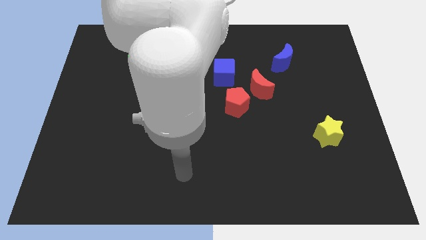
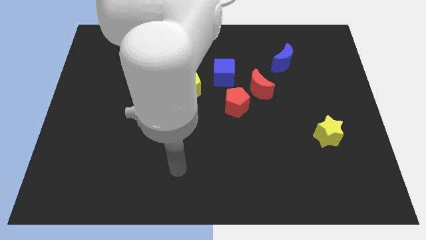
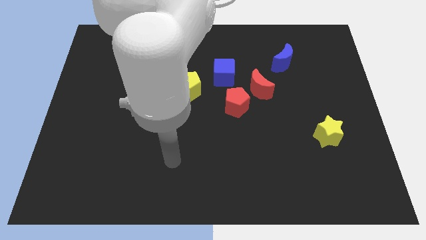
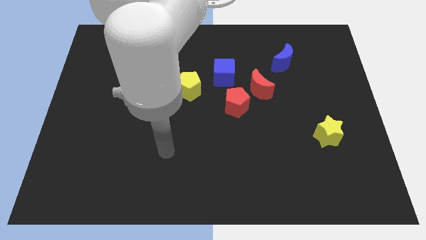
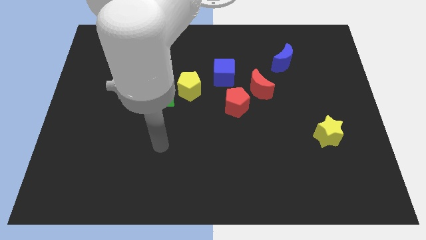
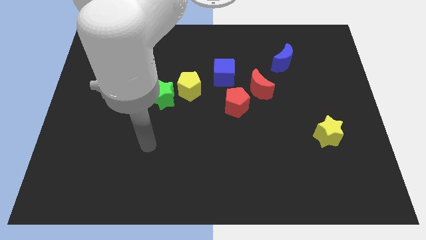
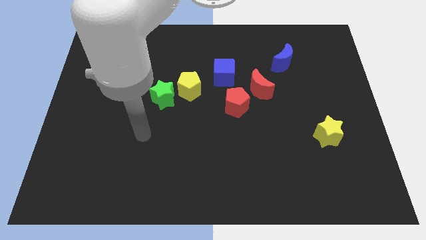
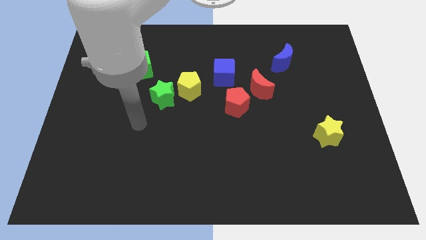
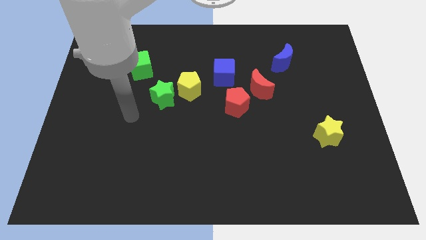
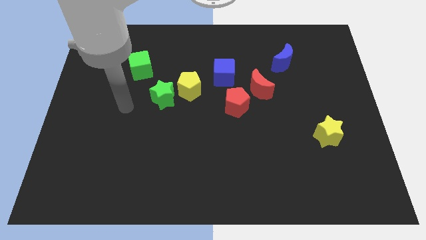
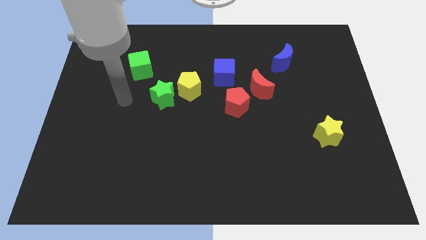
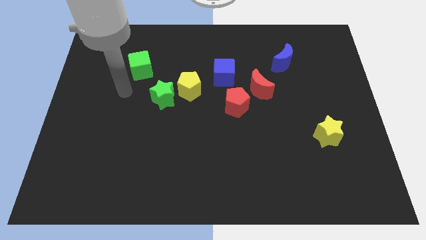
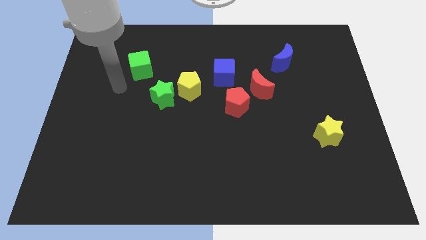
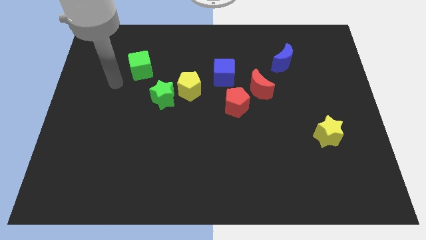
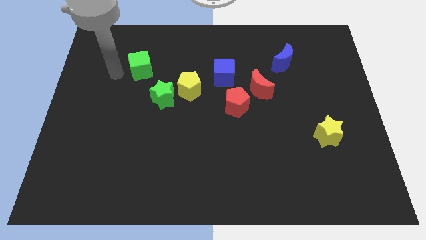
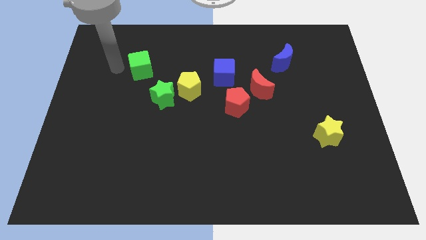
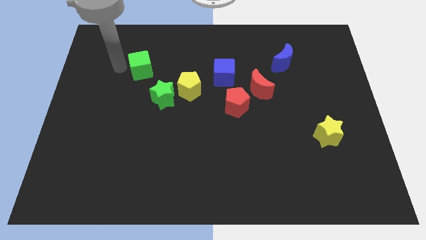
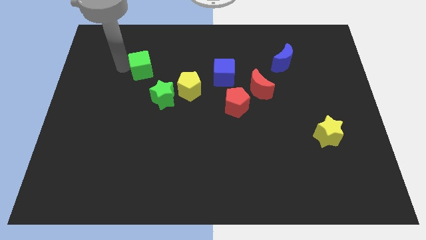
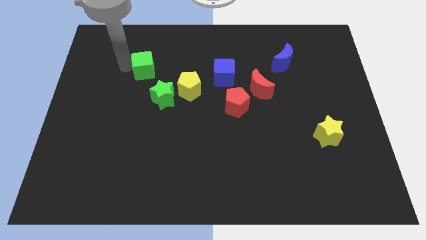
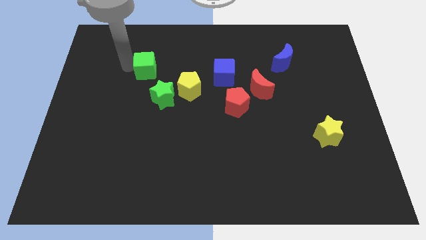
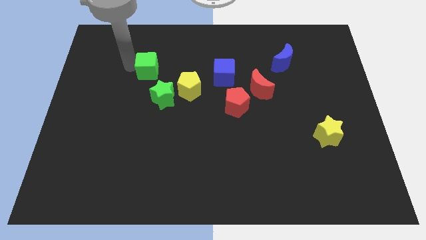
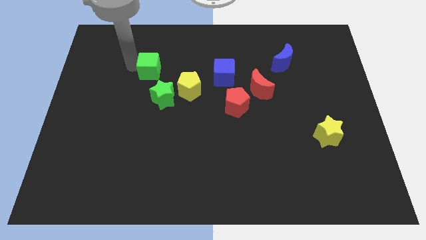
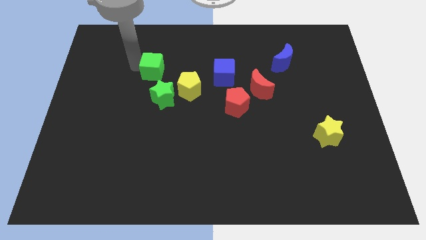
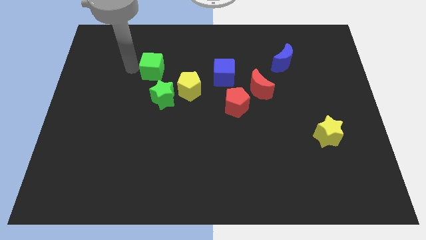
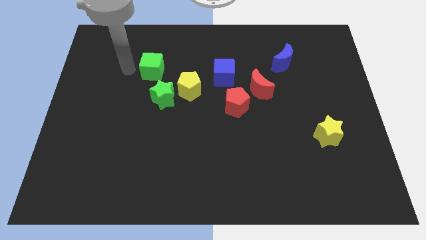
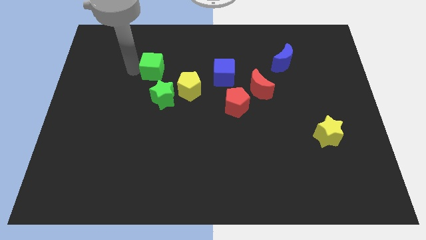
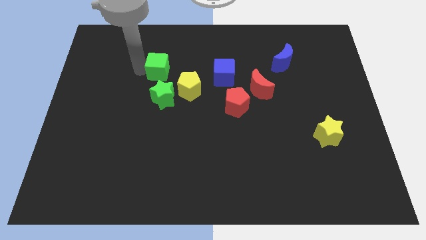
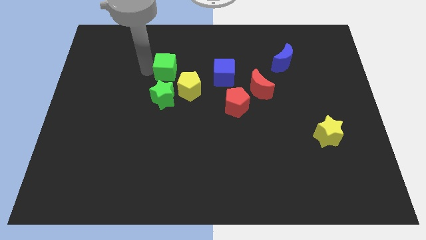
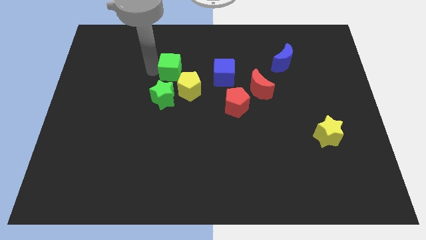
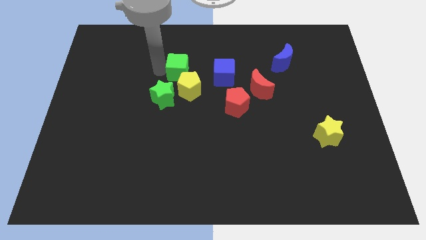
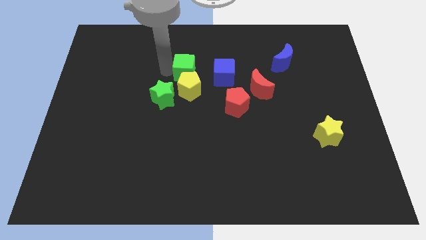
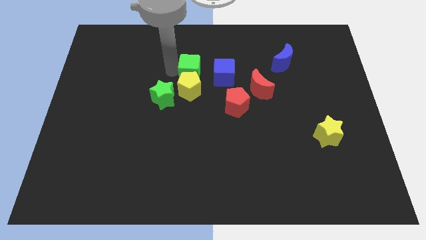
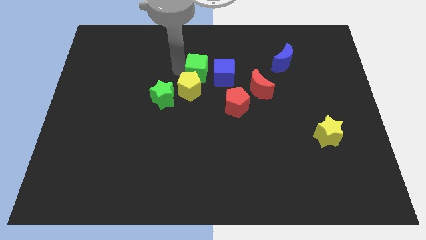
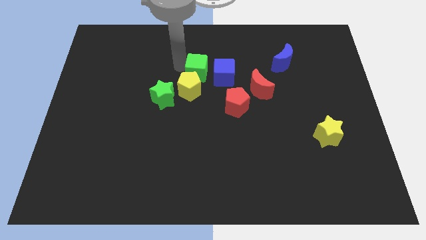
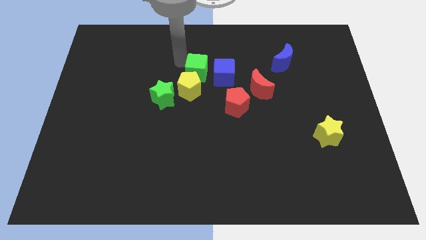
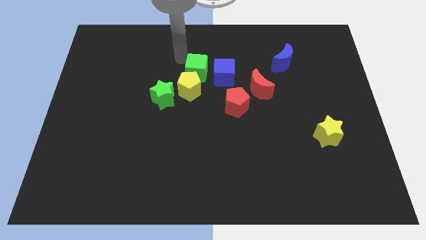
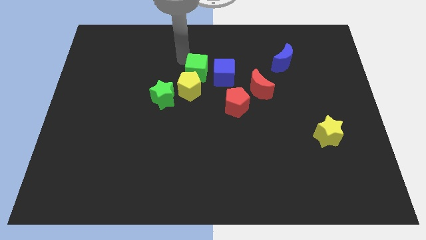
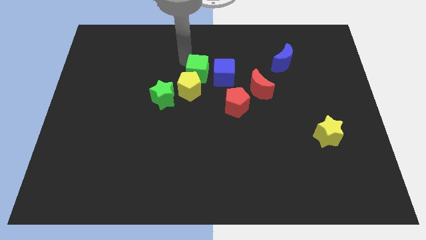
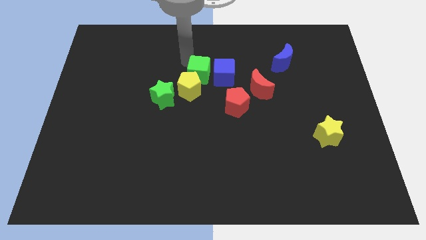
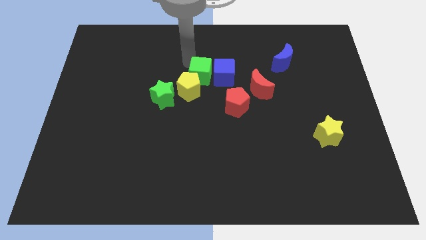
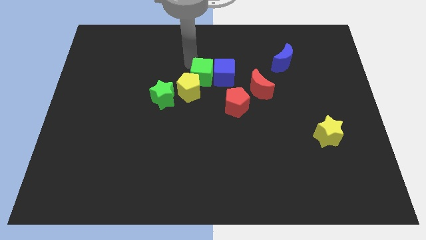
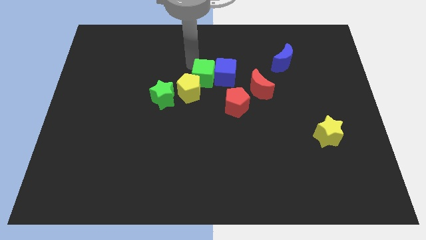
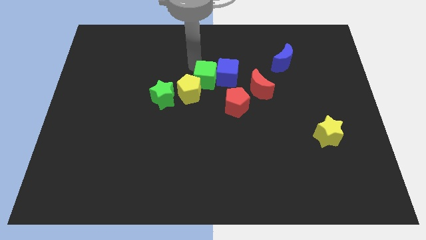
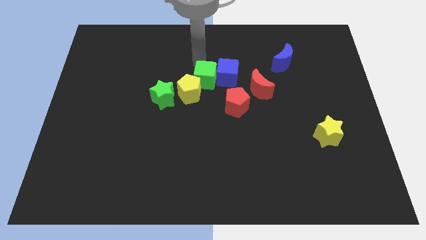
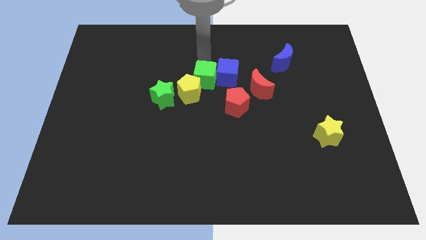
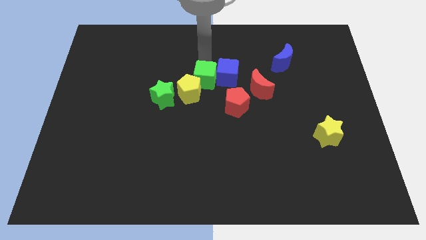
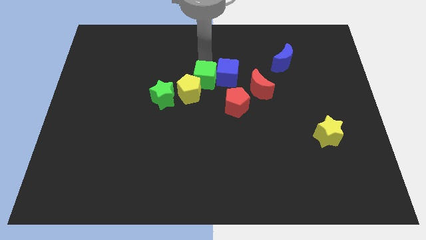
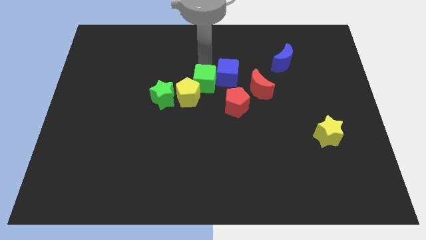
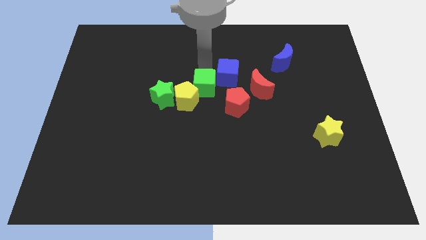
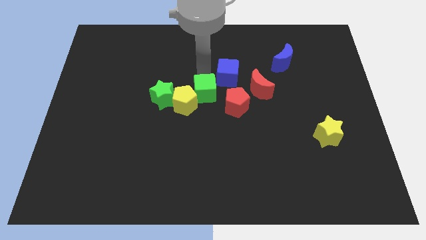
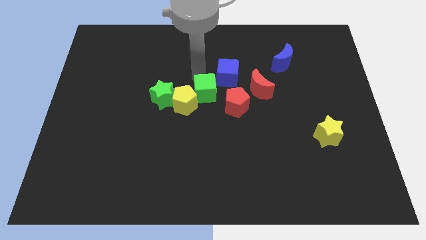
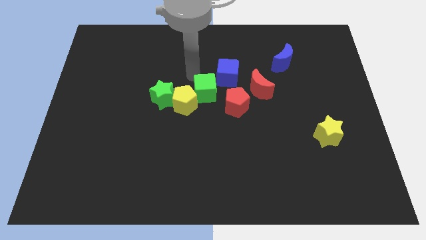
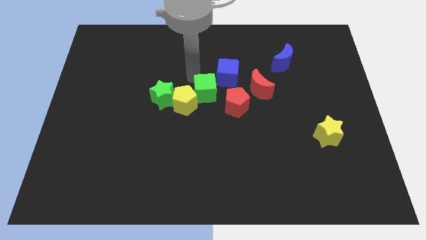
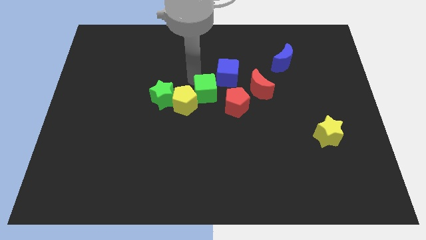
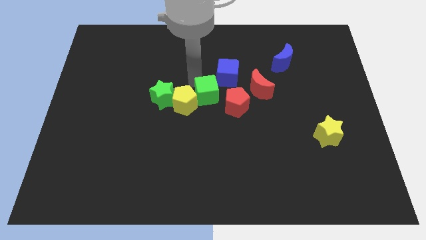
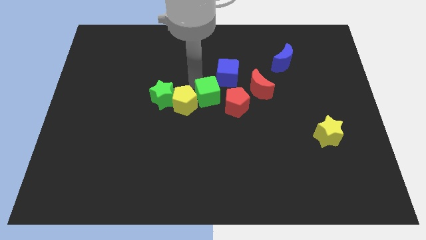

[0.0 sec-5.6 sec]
push the green cube below the blue cube

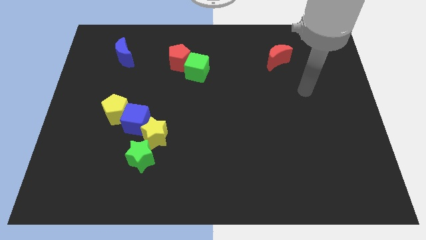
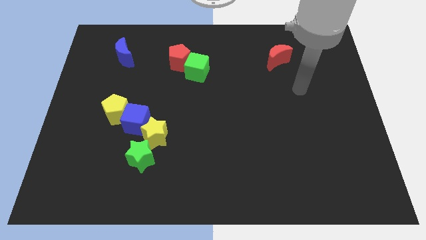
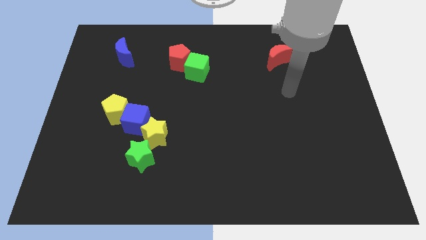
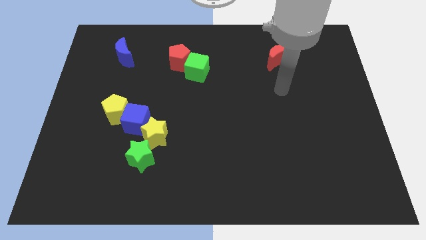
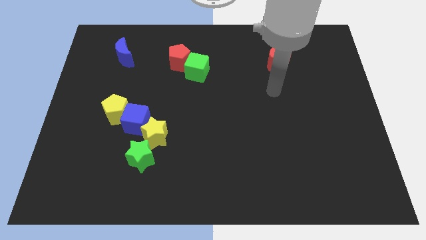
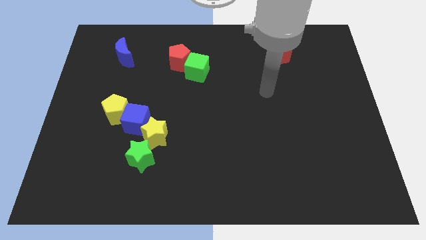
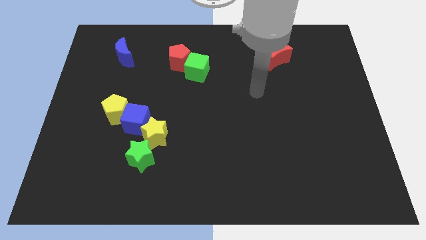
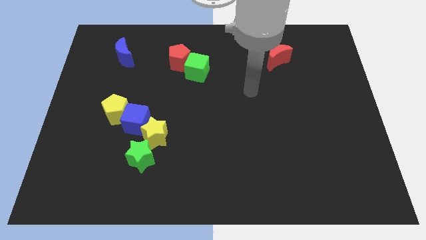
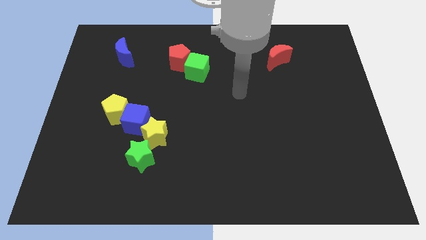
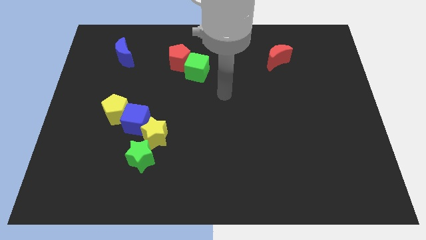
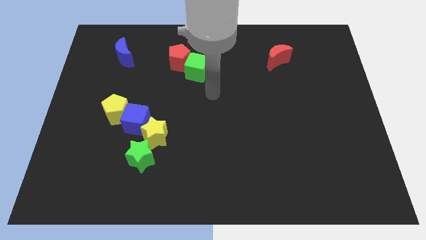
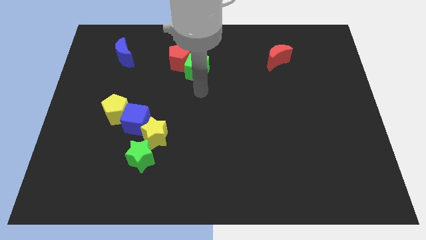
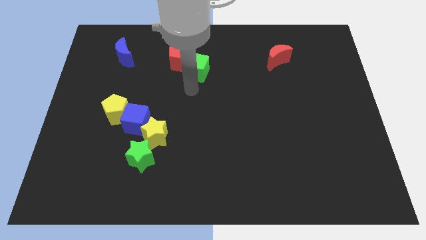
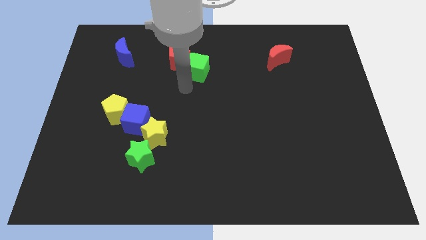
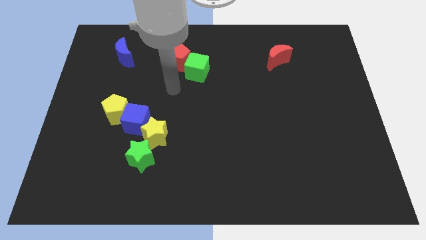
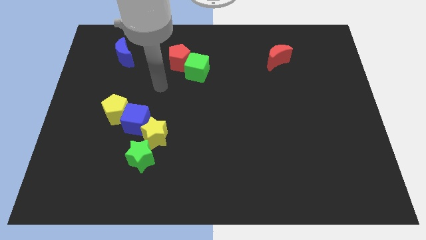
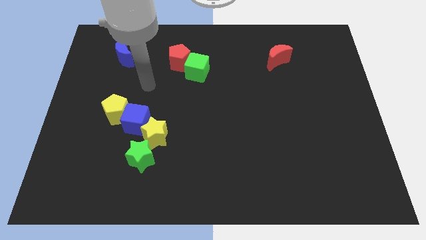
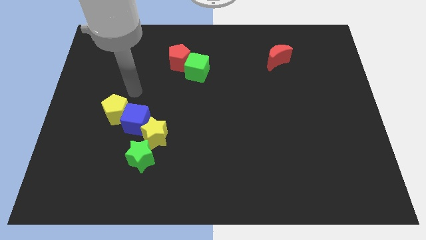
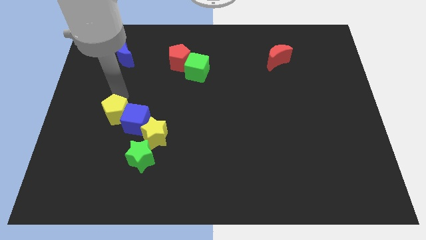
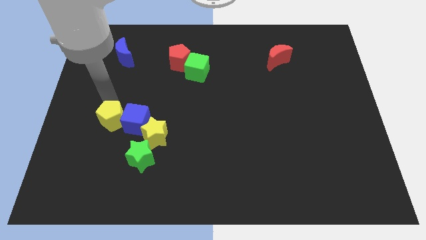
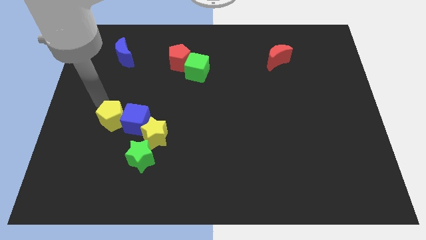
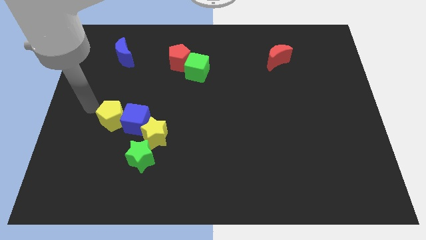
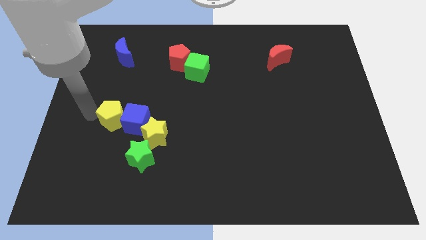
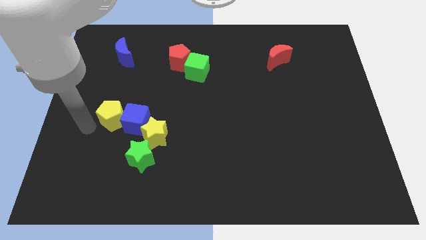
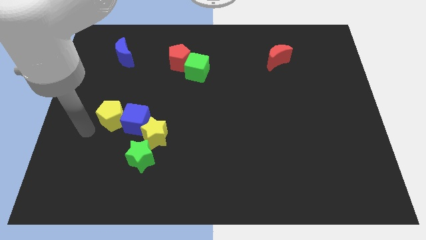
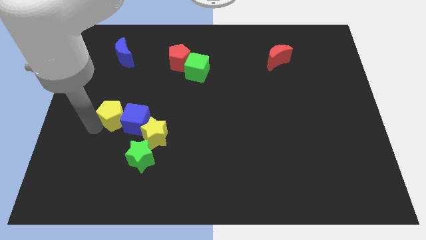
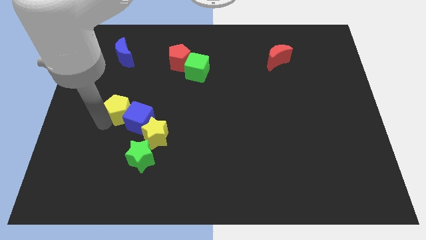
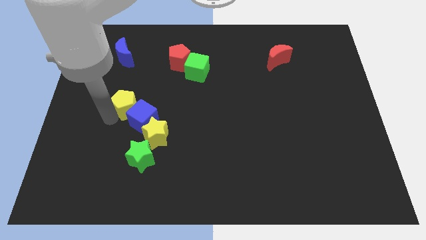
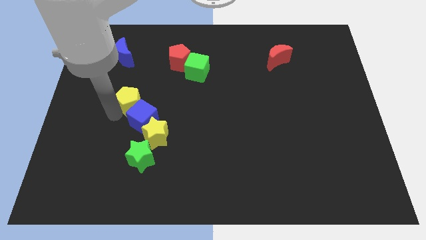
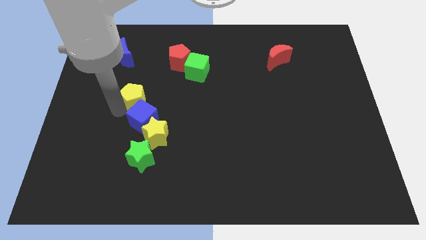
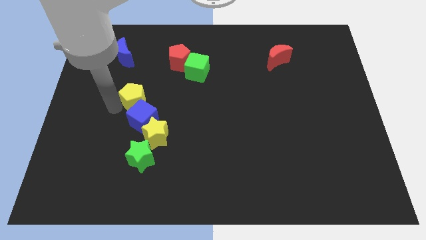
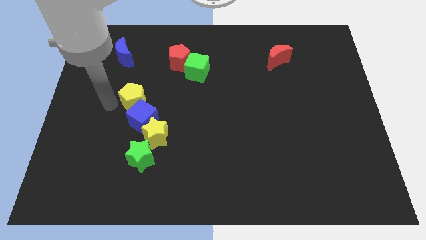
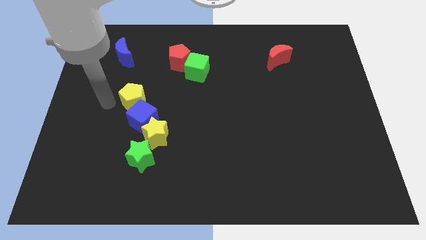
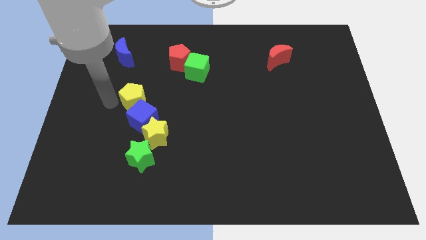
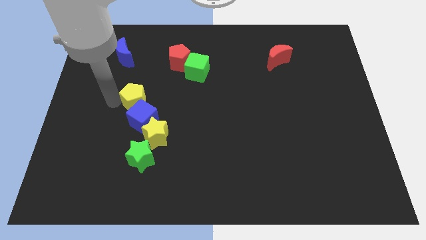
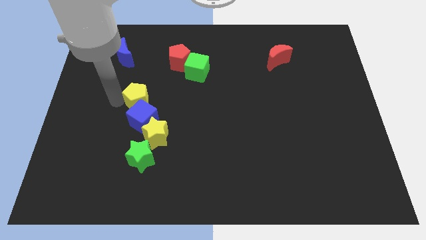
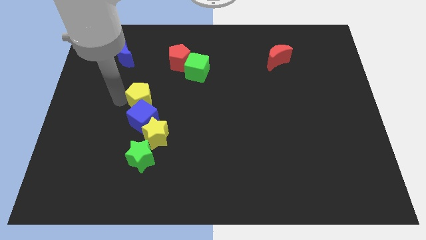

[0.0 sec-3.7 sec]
put the yellow pentagon to the top of the yellow star
